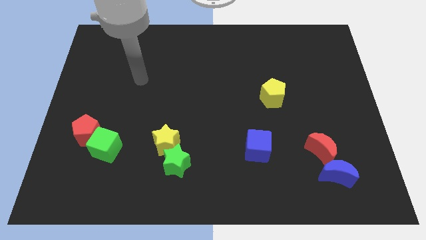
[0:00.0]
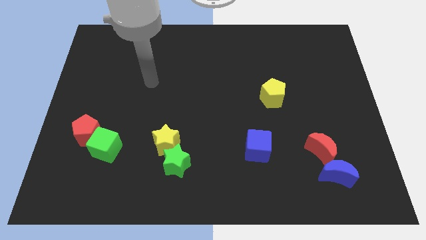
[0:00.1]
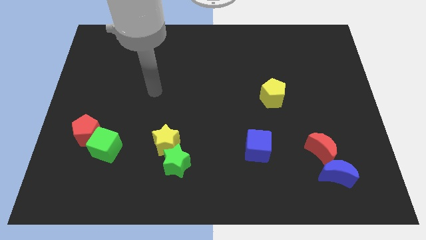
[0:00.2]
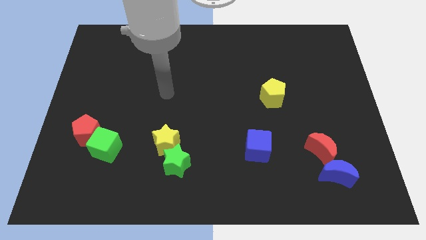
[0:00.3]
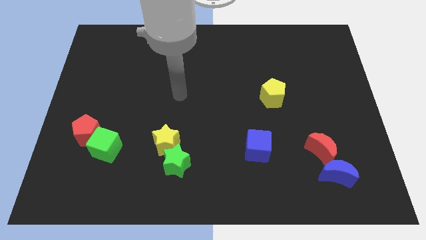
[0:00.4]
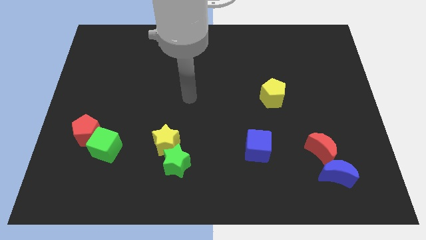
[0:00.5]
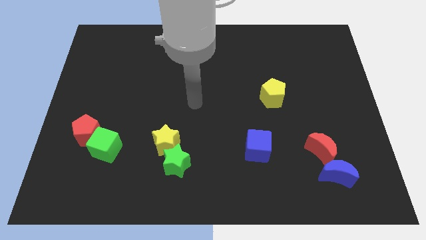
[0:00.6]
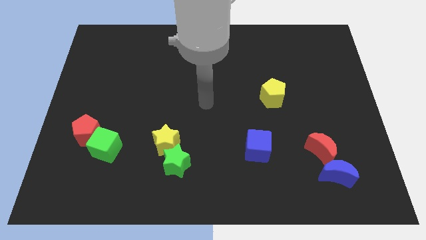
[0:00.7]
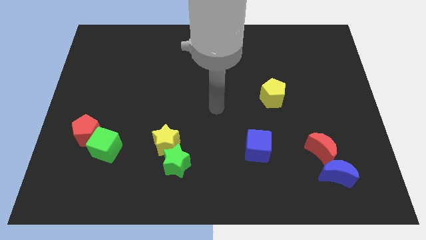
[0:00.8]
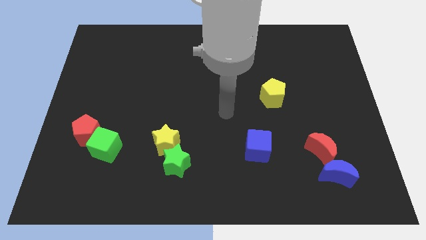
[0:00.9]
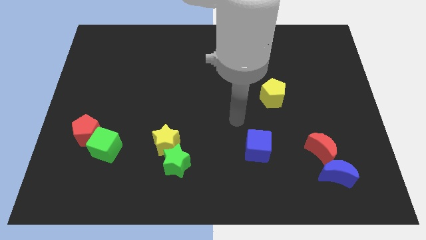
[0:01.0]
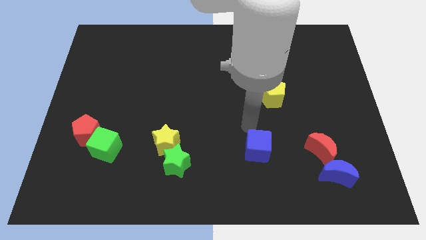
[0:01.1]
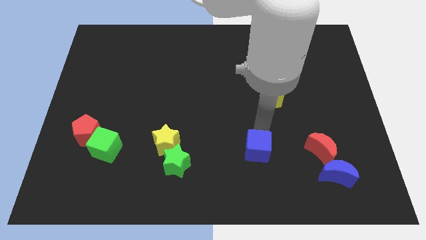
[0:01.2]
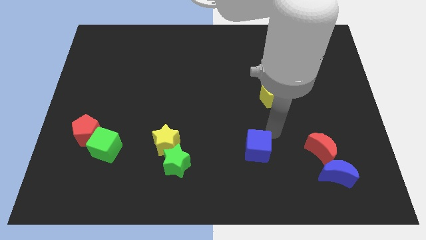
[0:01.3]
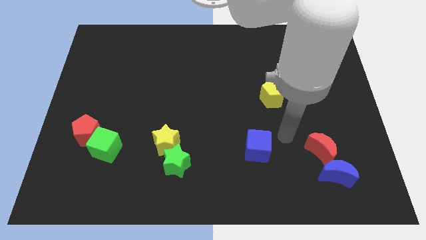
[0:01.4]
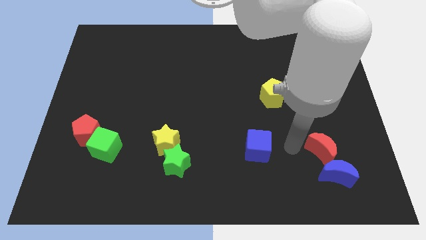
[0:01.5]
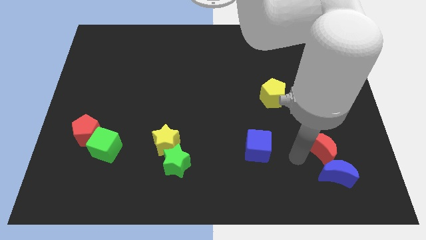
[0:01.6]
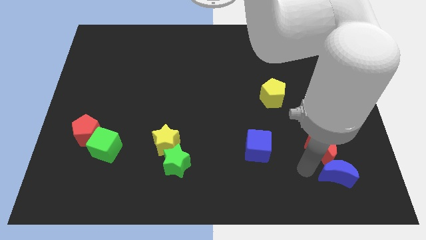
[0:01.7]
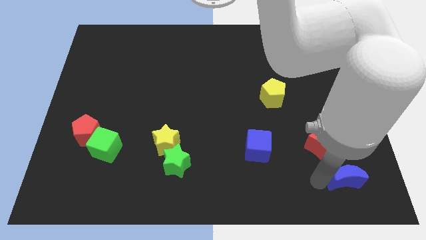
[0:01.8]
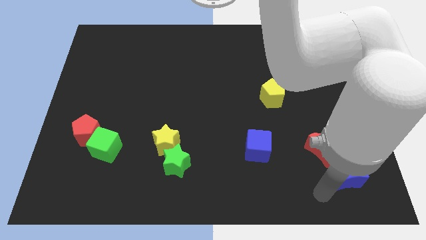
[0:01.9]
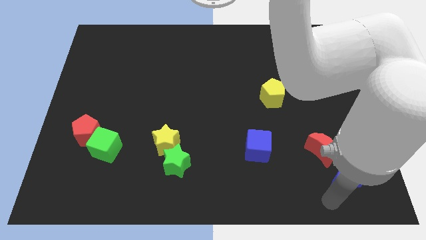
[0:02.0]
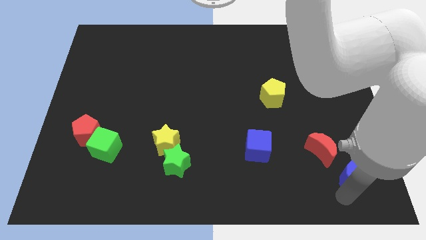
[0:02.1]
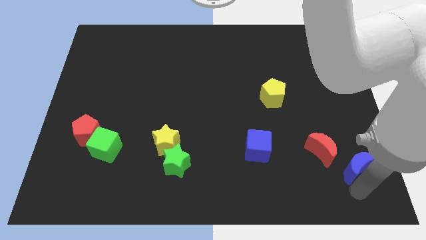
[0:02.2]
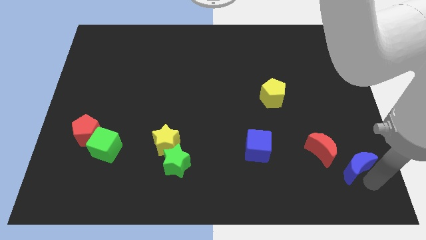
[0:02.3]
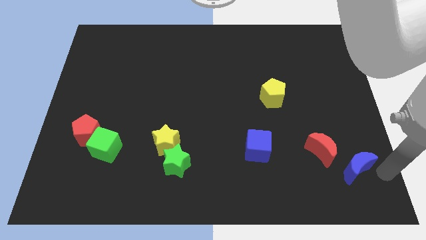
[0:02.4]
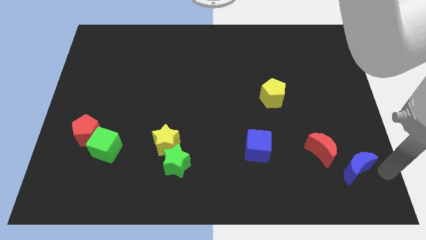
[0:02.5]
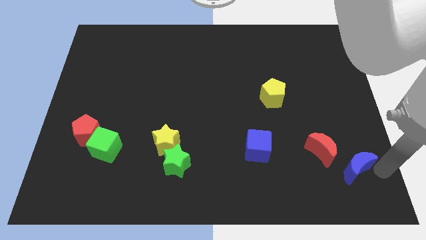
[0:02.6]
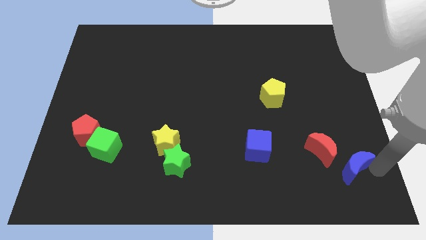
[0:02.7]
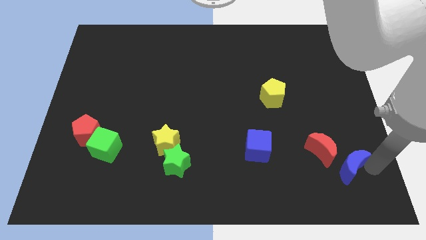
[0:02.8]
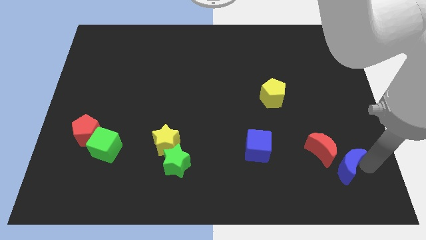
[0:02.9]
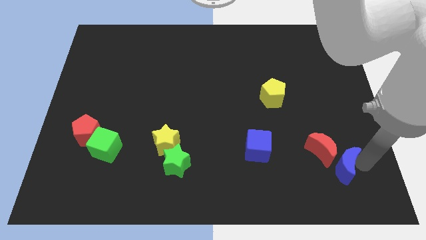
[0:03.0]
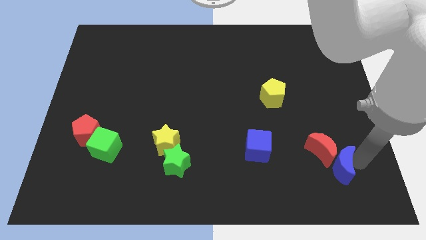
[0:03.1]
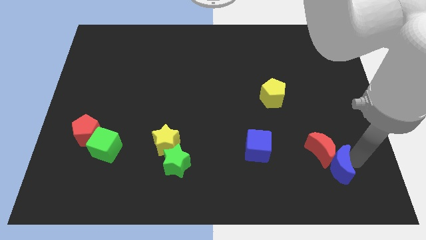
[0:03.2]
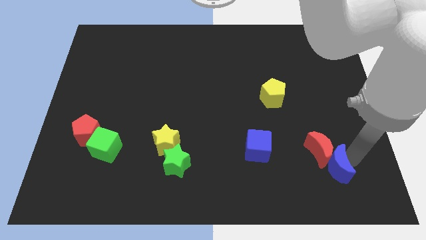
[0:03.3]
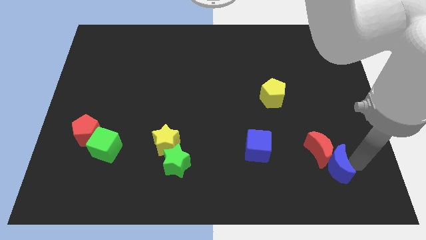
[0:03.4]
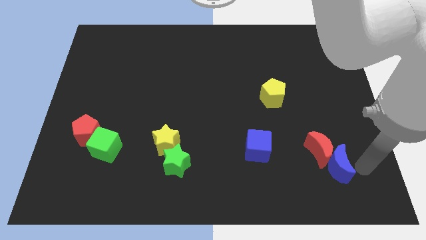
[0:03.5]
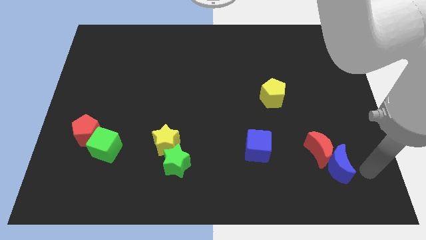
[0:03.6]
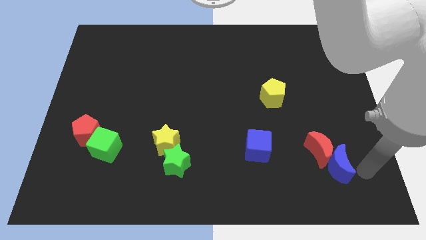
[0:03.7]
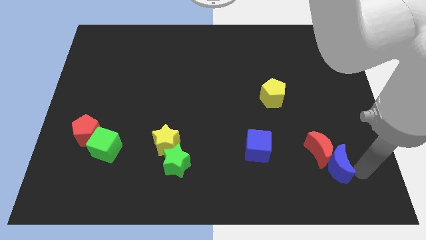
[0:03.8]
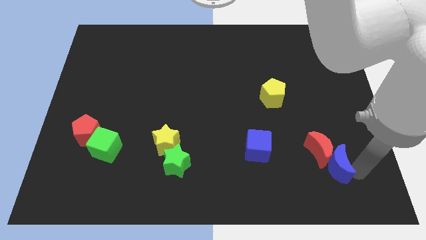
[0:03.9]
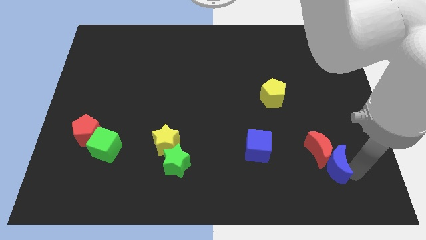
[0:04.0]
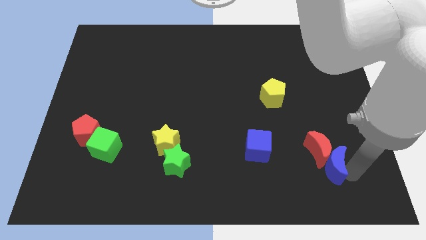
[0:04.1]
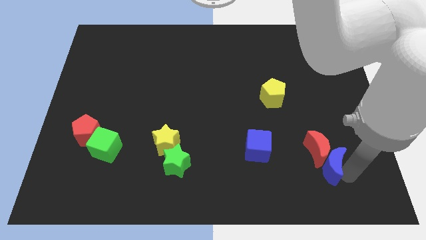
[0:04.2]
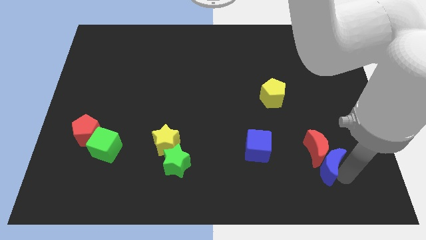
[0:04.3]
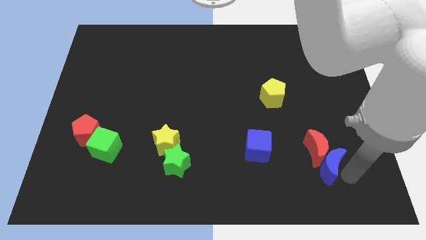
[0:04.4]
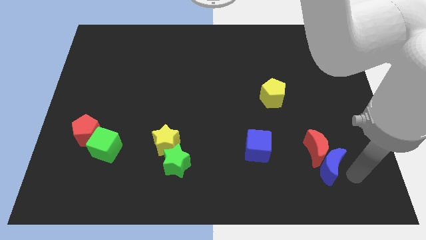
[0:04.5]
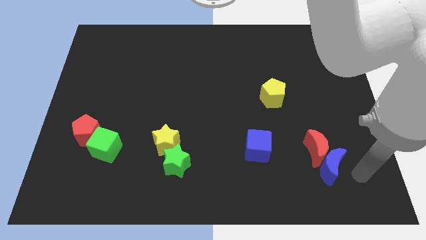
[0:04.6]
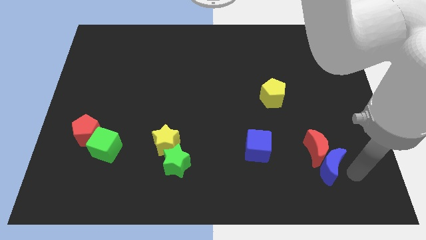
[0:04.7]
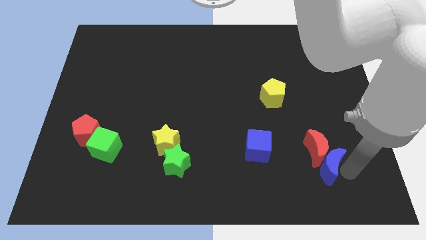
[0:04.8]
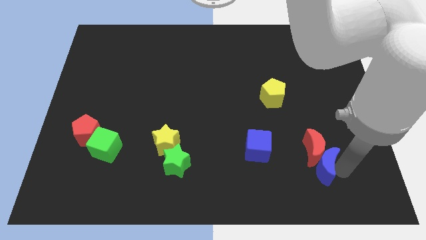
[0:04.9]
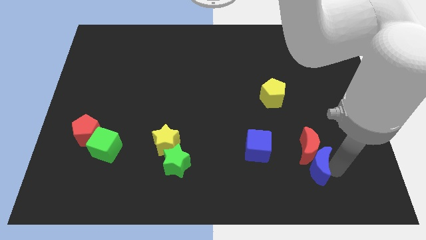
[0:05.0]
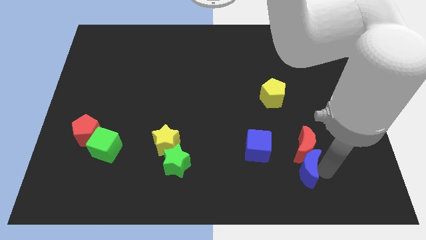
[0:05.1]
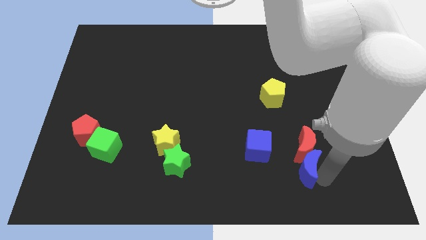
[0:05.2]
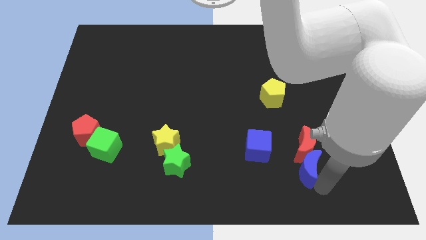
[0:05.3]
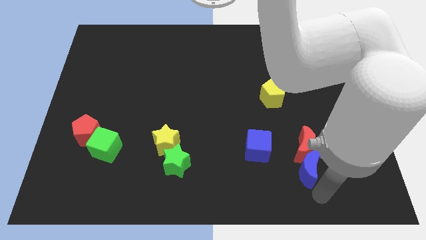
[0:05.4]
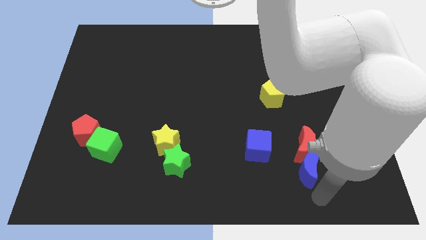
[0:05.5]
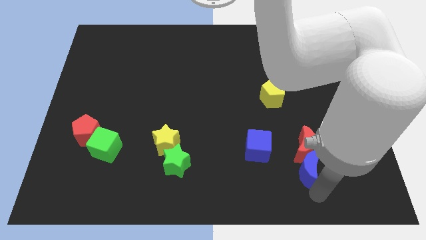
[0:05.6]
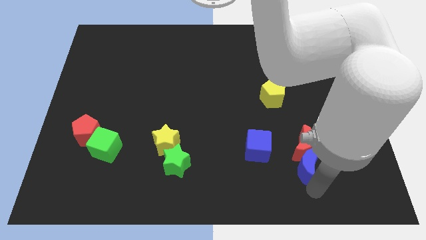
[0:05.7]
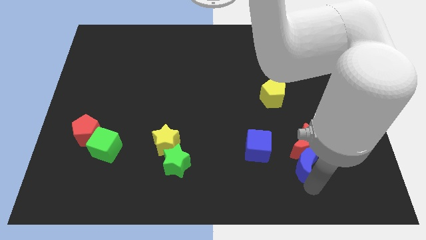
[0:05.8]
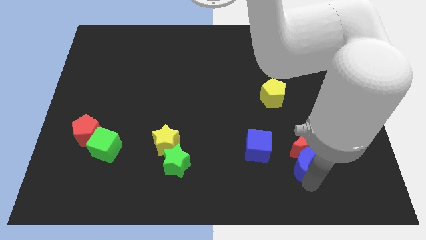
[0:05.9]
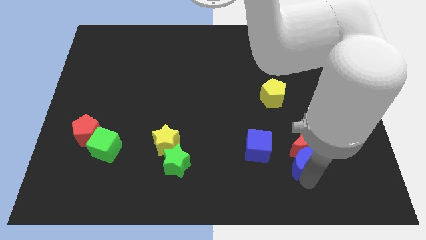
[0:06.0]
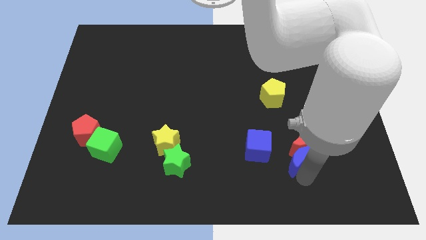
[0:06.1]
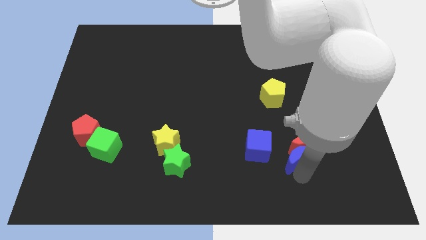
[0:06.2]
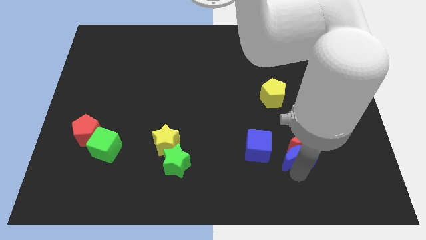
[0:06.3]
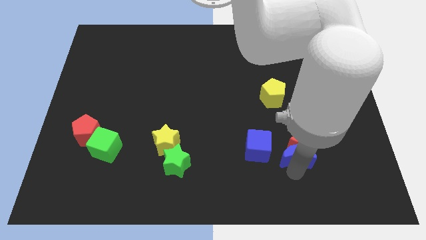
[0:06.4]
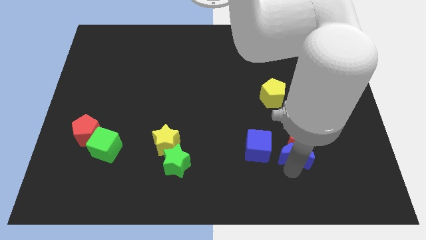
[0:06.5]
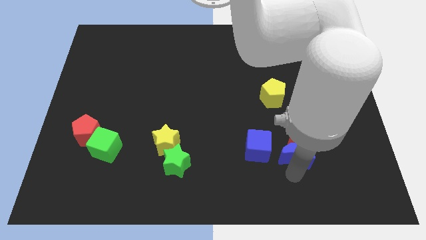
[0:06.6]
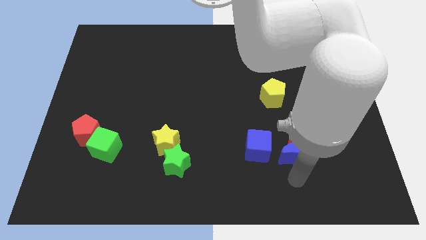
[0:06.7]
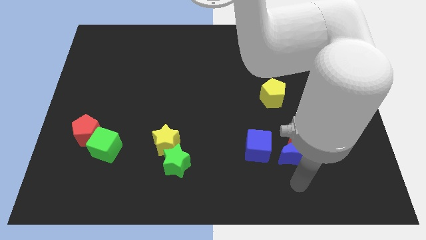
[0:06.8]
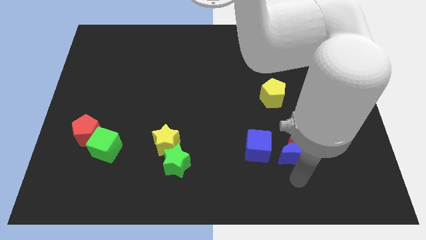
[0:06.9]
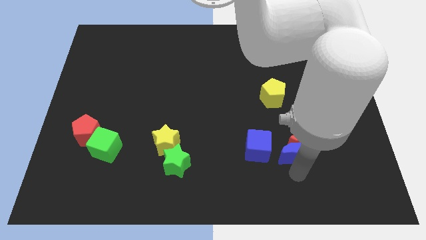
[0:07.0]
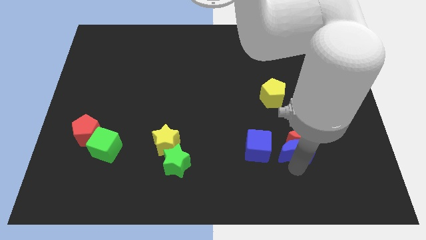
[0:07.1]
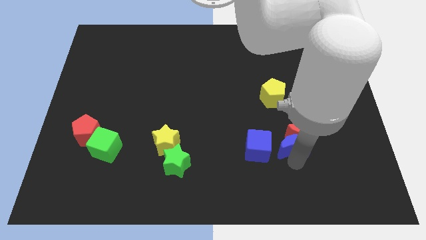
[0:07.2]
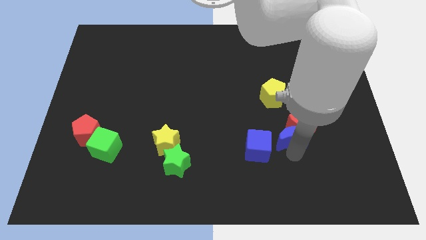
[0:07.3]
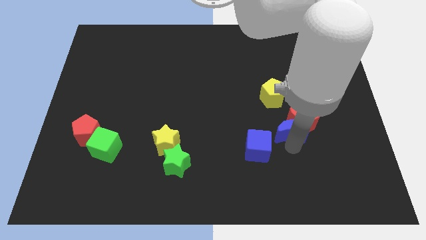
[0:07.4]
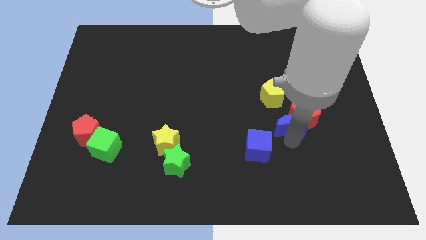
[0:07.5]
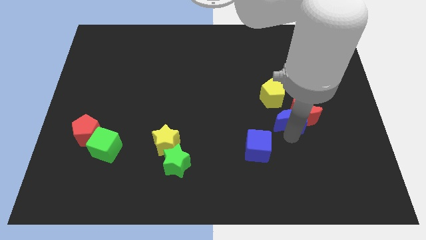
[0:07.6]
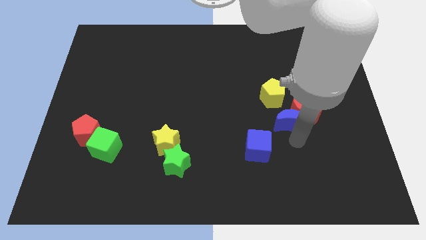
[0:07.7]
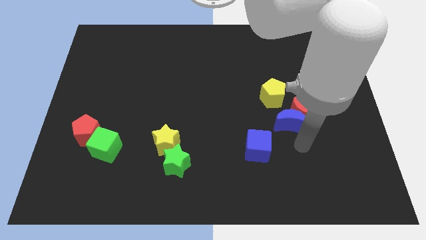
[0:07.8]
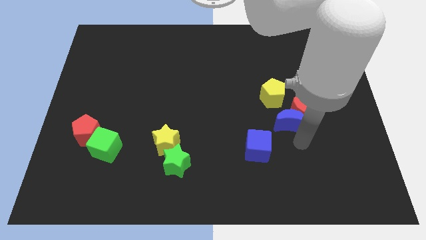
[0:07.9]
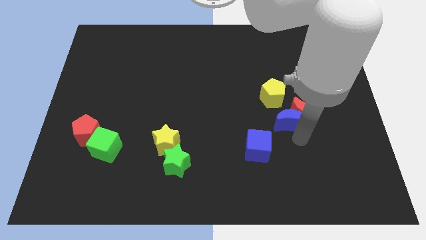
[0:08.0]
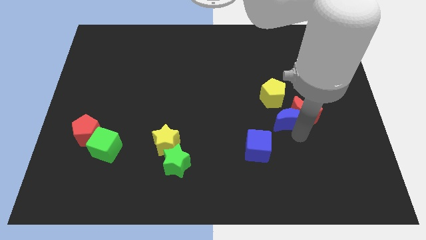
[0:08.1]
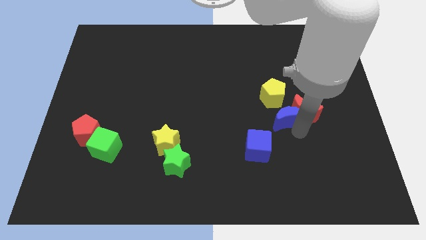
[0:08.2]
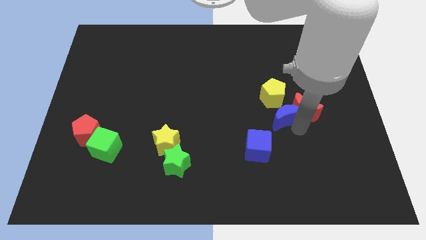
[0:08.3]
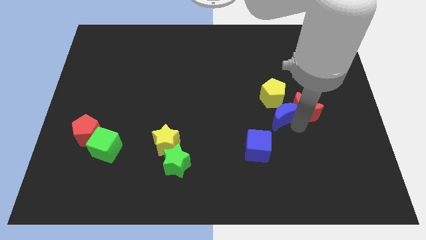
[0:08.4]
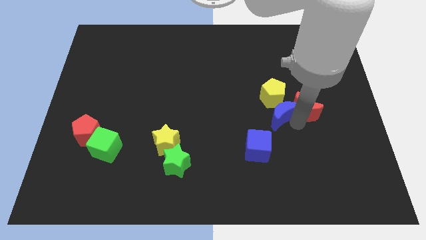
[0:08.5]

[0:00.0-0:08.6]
put the blue moon to the yellow pentagon
